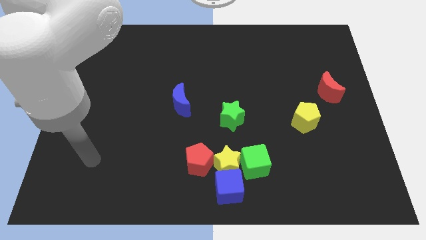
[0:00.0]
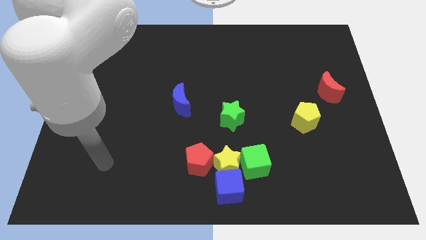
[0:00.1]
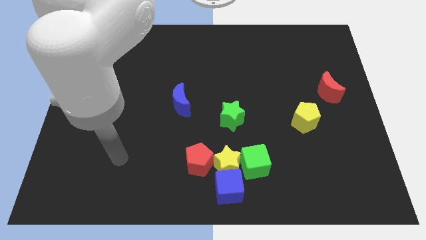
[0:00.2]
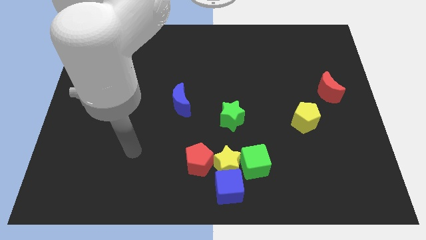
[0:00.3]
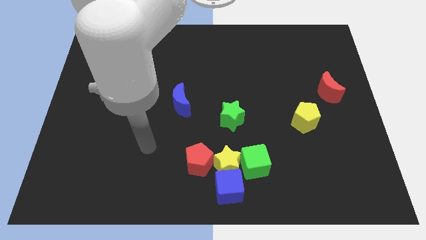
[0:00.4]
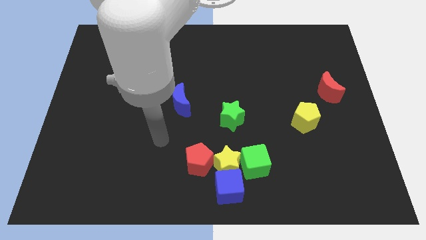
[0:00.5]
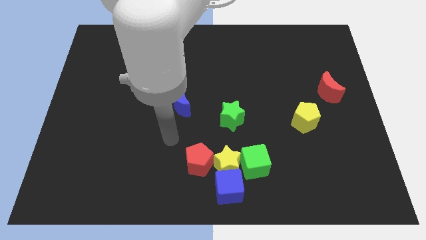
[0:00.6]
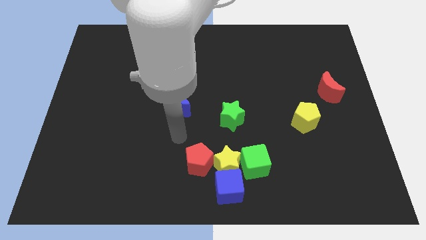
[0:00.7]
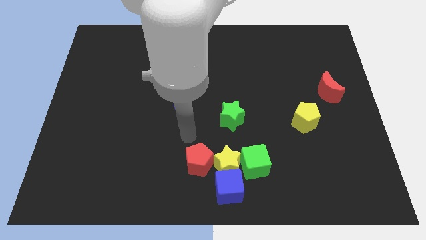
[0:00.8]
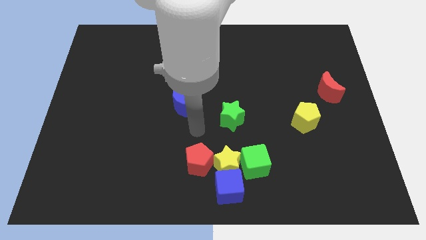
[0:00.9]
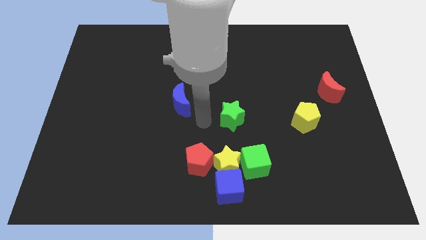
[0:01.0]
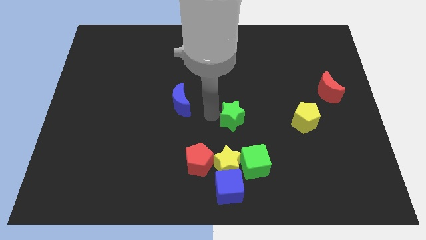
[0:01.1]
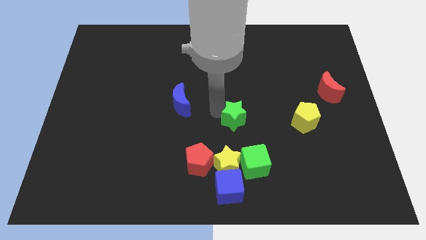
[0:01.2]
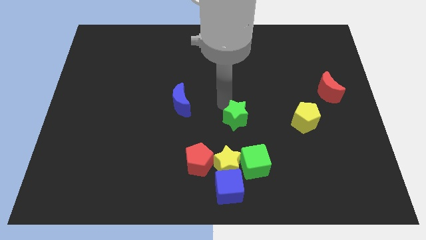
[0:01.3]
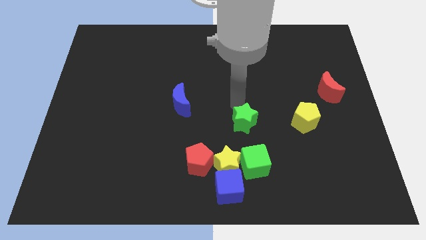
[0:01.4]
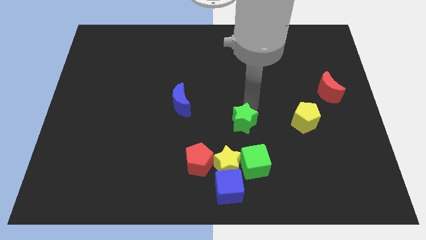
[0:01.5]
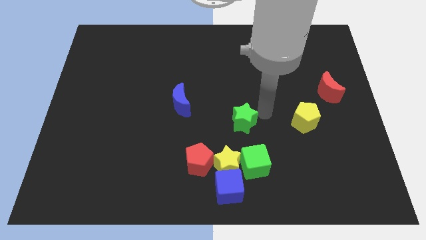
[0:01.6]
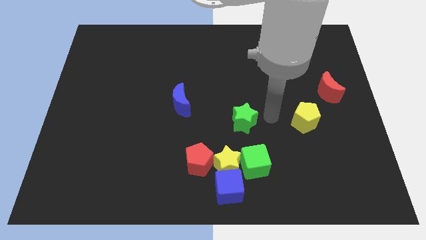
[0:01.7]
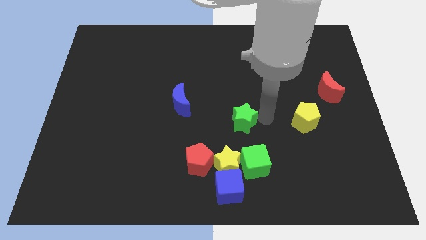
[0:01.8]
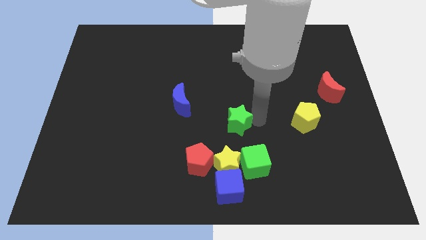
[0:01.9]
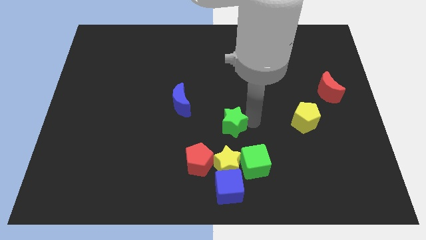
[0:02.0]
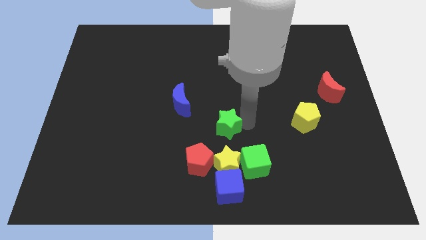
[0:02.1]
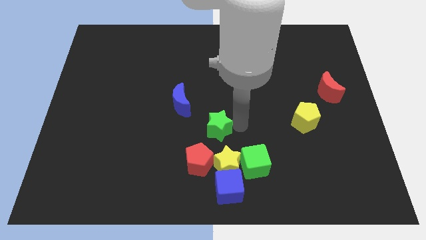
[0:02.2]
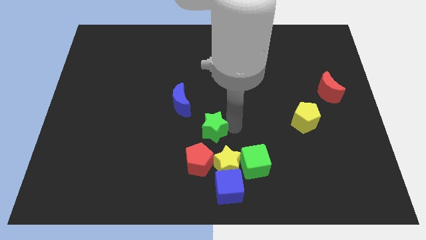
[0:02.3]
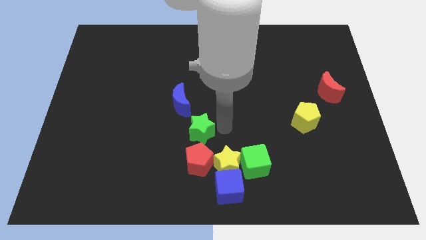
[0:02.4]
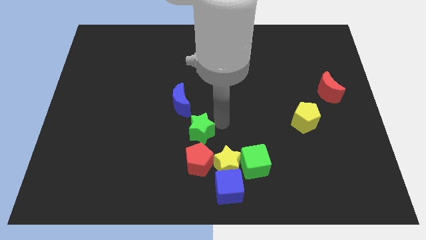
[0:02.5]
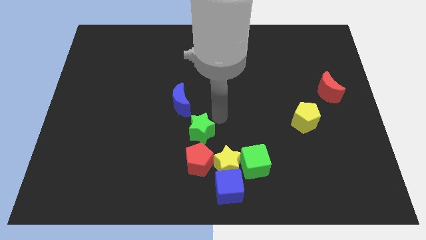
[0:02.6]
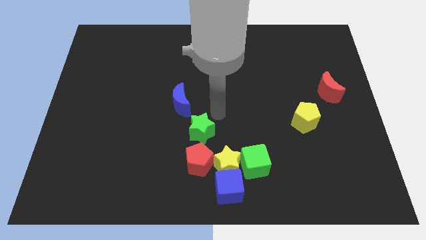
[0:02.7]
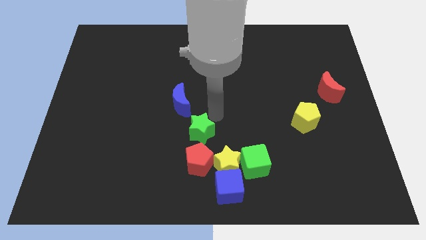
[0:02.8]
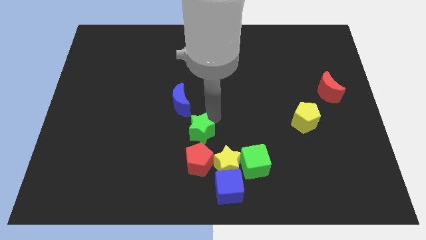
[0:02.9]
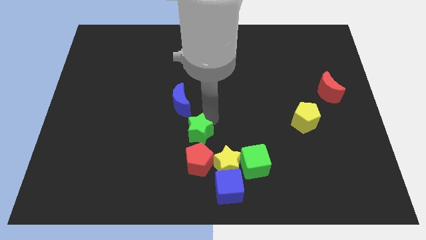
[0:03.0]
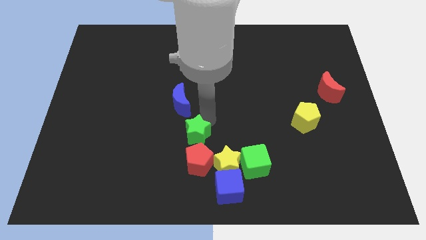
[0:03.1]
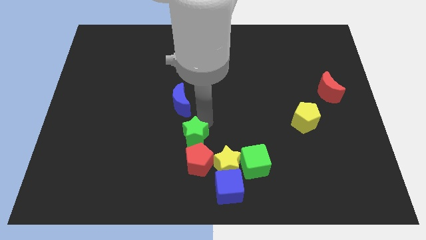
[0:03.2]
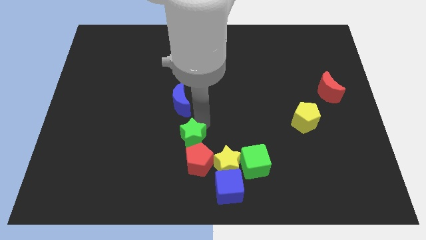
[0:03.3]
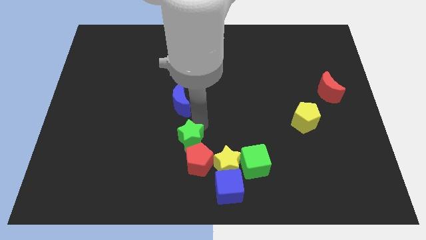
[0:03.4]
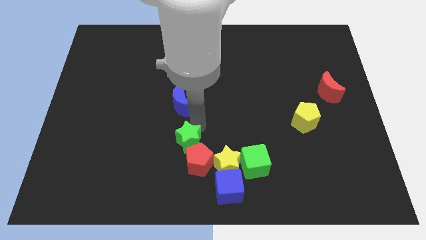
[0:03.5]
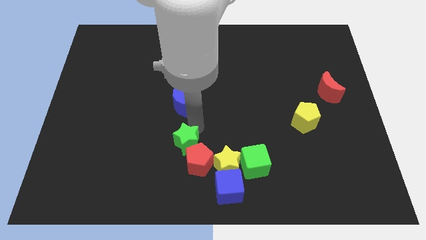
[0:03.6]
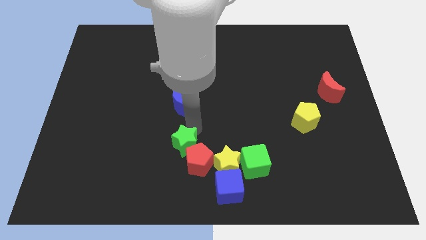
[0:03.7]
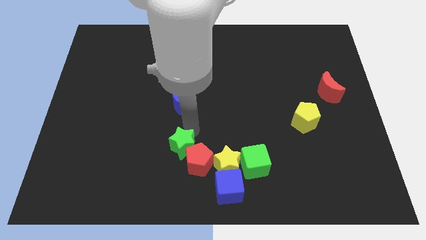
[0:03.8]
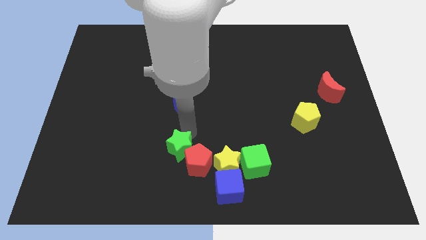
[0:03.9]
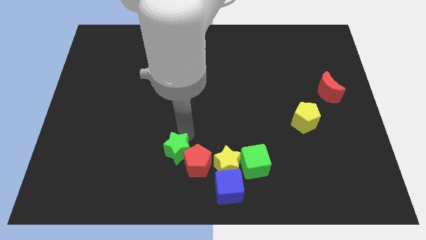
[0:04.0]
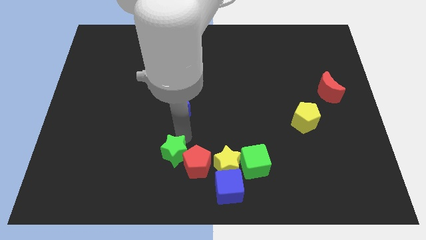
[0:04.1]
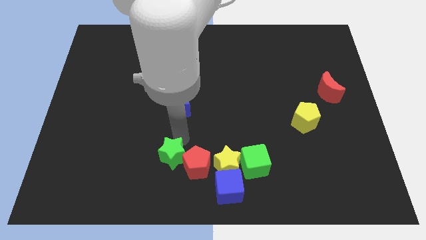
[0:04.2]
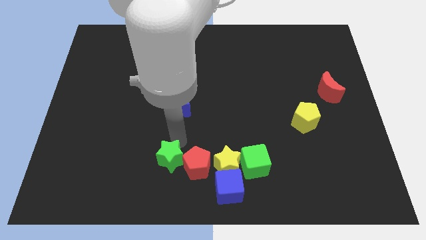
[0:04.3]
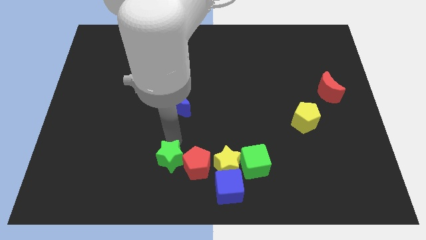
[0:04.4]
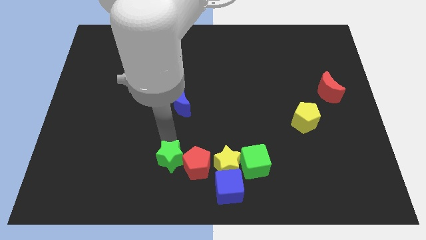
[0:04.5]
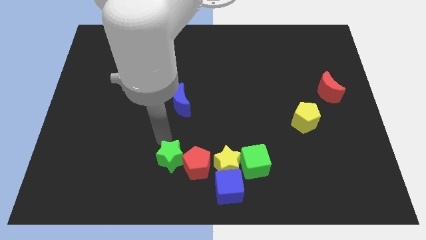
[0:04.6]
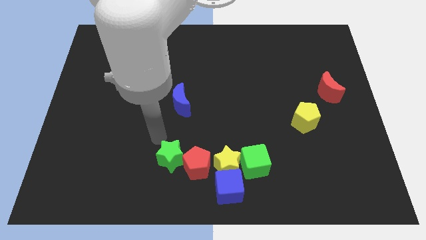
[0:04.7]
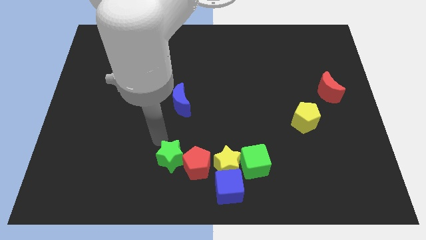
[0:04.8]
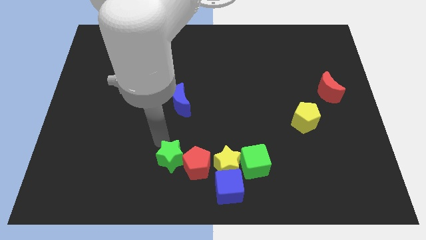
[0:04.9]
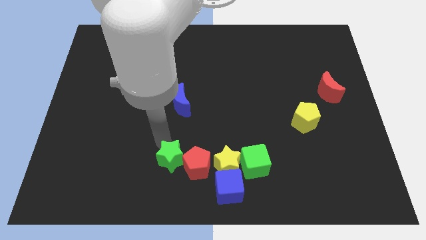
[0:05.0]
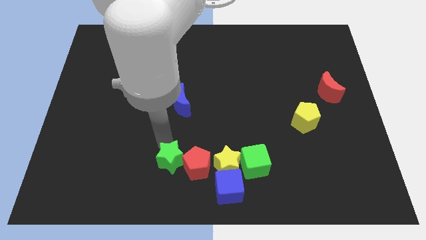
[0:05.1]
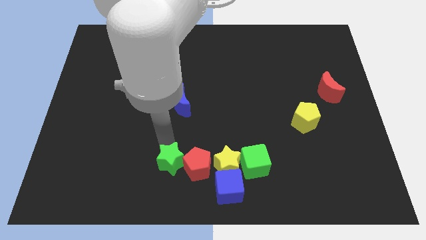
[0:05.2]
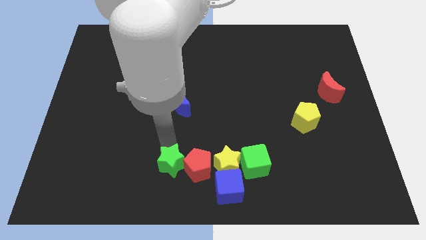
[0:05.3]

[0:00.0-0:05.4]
move the green star to the bottom side

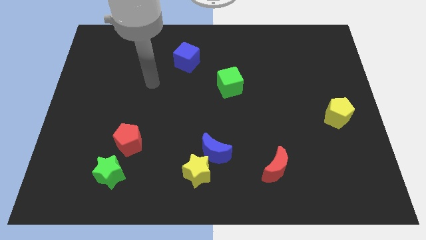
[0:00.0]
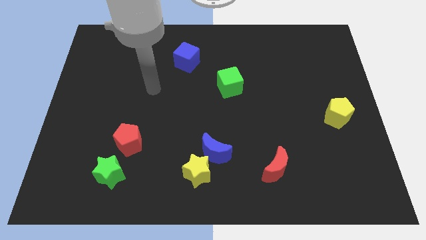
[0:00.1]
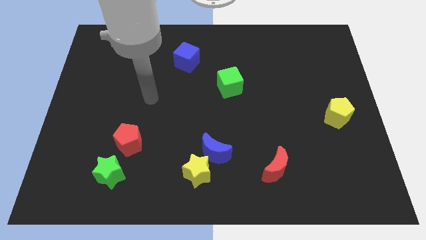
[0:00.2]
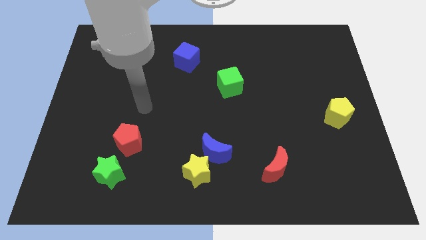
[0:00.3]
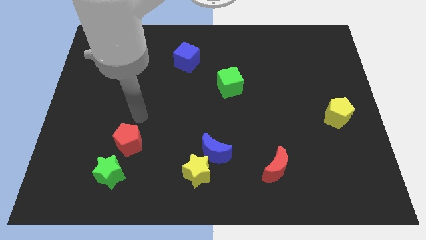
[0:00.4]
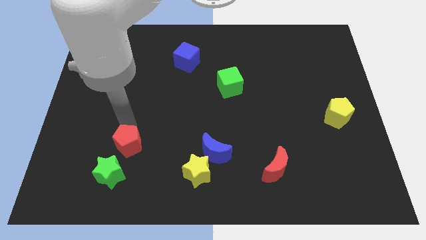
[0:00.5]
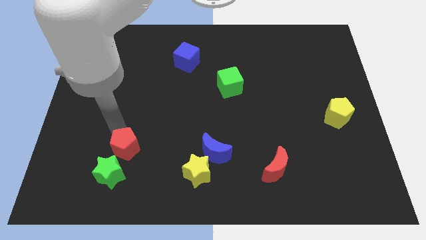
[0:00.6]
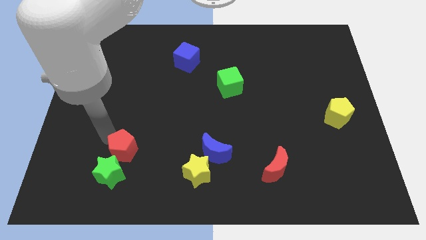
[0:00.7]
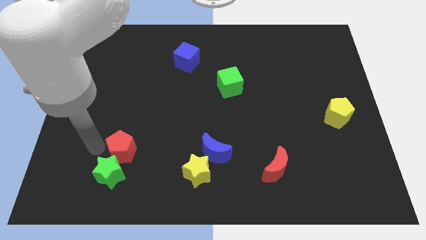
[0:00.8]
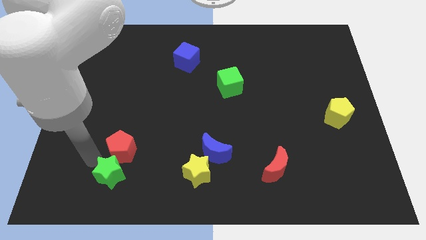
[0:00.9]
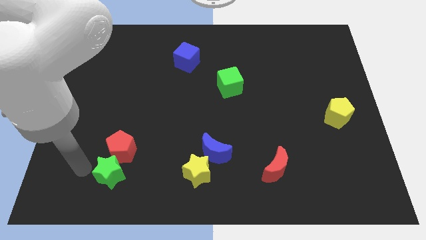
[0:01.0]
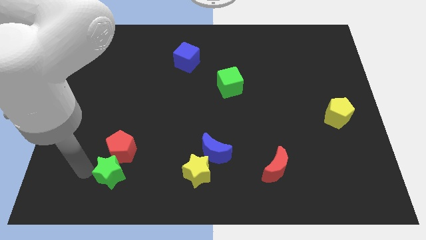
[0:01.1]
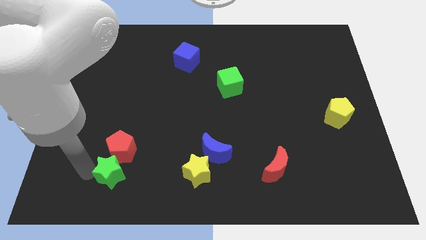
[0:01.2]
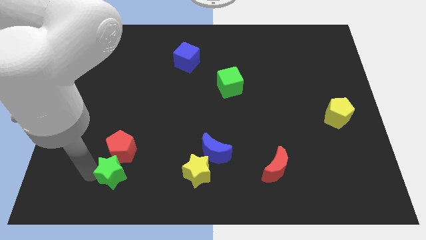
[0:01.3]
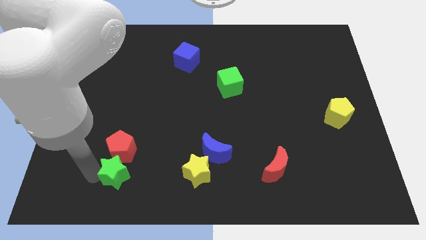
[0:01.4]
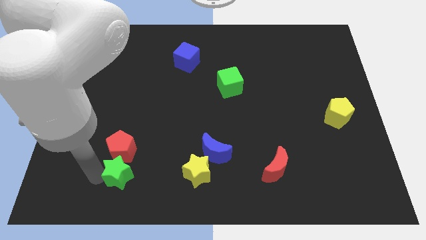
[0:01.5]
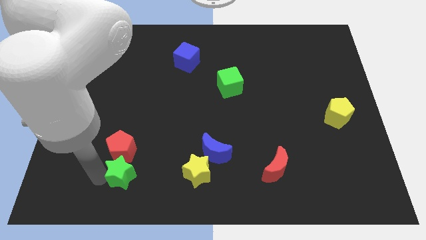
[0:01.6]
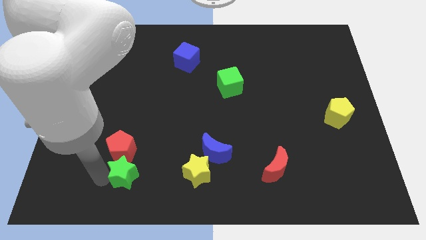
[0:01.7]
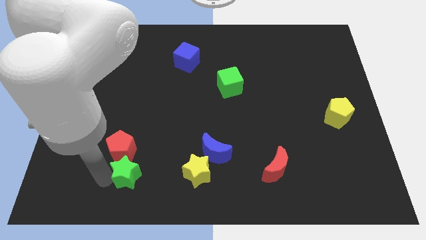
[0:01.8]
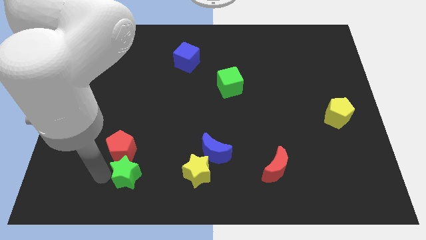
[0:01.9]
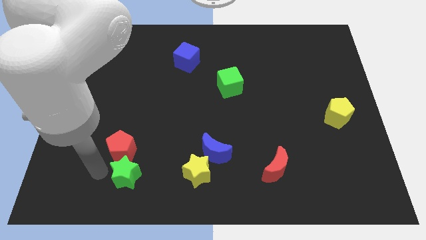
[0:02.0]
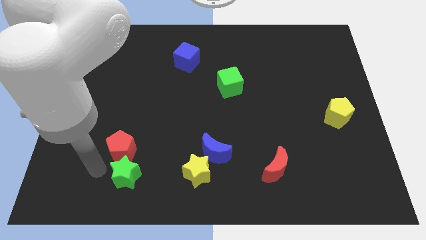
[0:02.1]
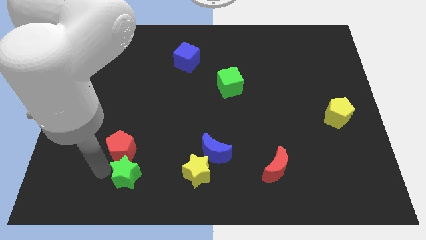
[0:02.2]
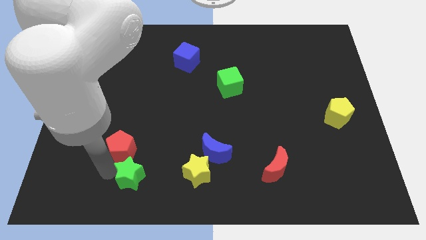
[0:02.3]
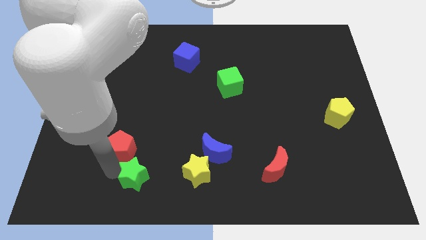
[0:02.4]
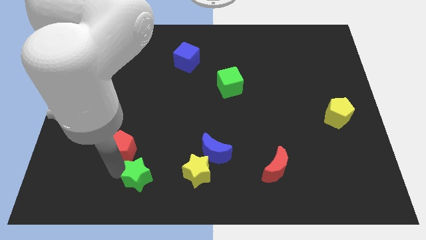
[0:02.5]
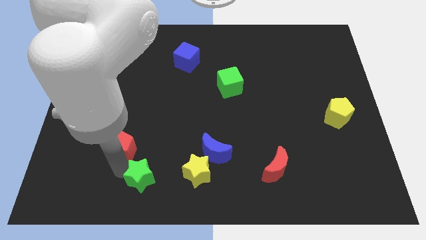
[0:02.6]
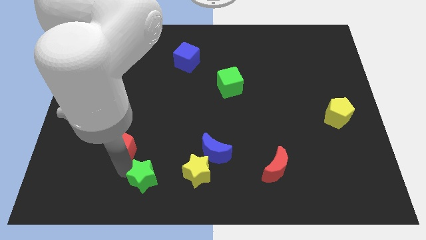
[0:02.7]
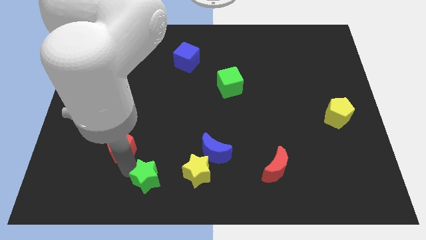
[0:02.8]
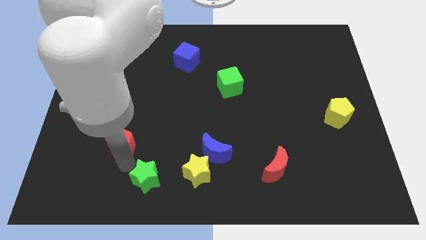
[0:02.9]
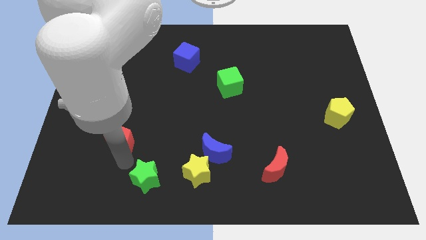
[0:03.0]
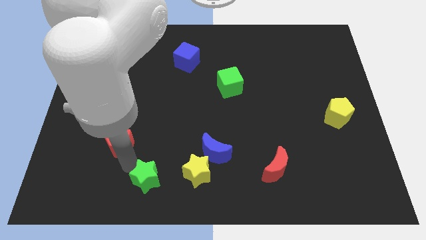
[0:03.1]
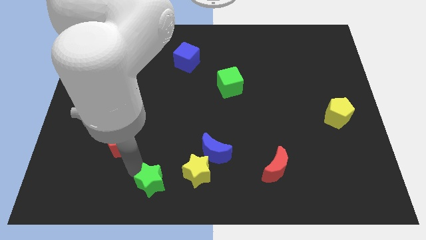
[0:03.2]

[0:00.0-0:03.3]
slide the green star to the bottom side
